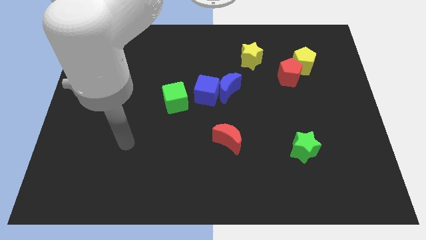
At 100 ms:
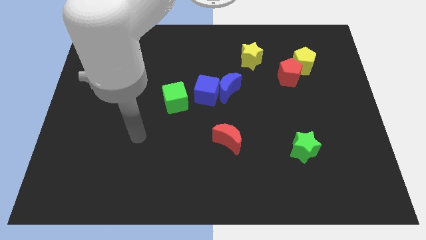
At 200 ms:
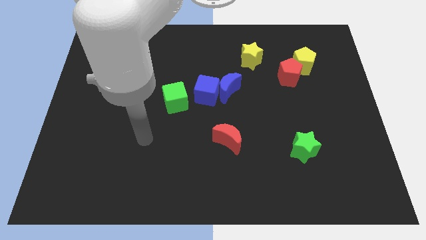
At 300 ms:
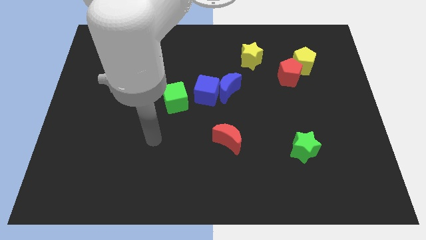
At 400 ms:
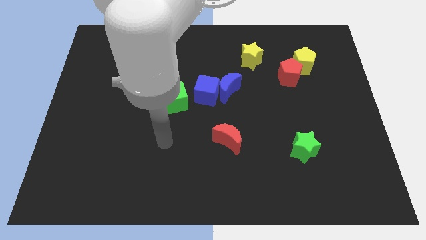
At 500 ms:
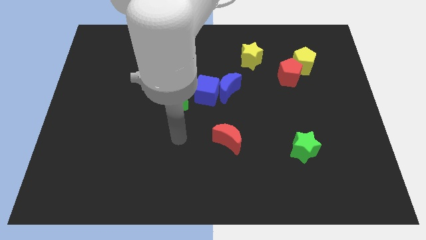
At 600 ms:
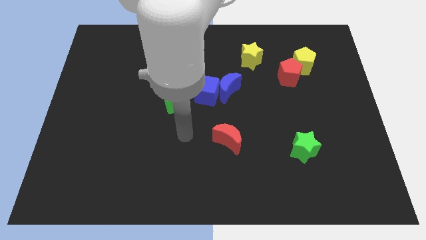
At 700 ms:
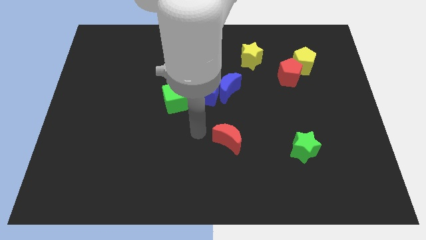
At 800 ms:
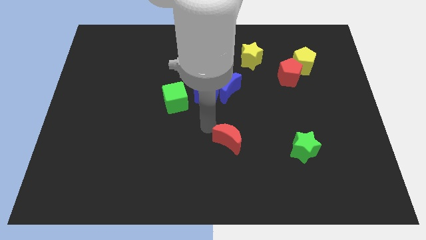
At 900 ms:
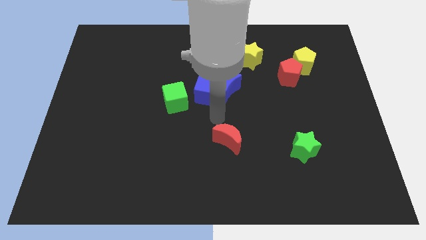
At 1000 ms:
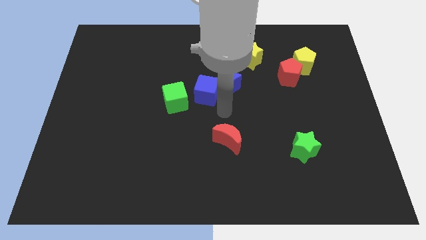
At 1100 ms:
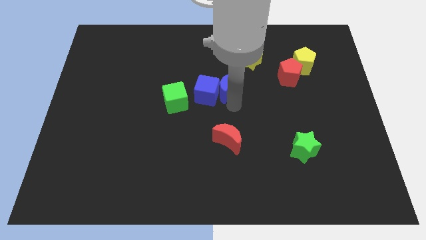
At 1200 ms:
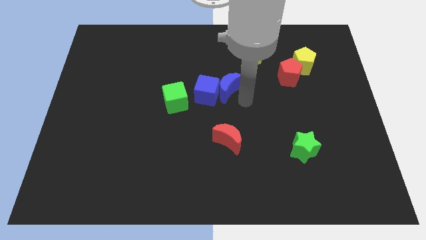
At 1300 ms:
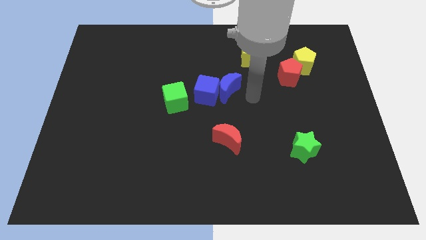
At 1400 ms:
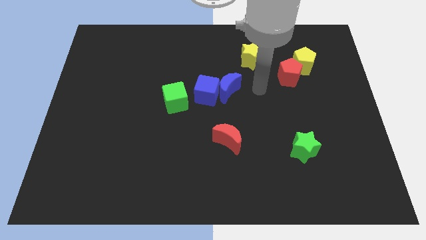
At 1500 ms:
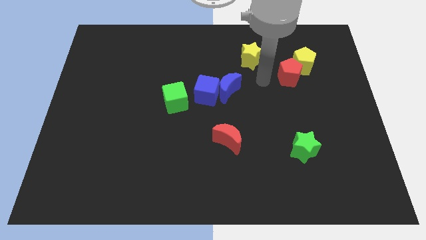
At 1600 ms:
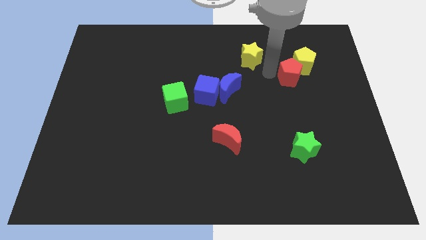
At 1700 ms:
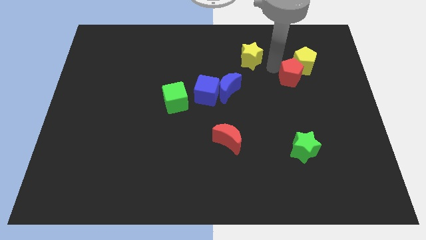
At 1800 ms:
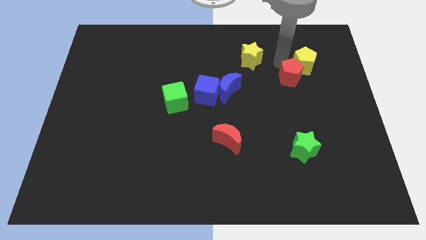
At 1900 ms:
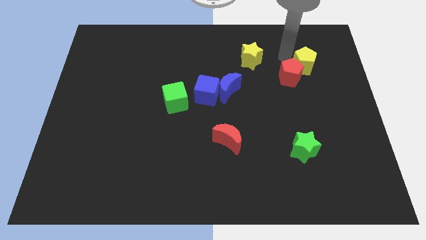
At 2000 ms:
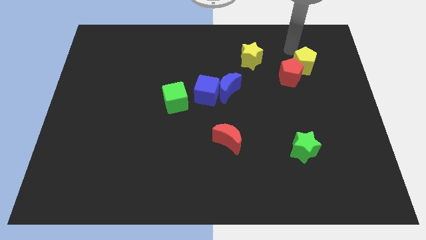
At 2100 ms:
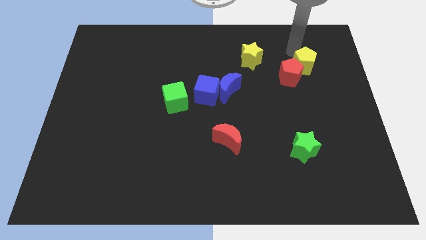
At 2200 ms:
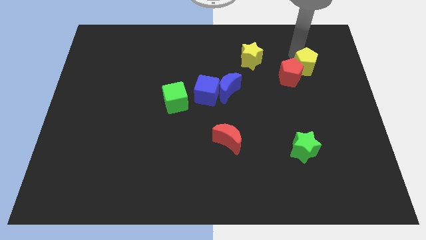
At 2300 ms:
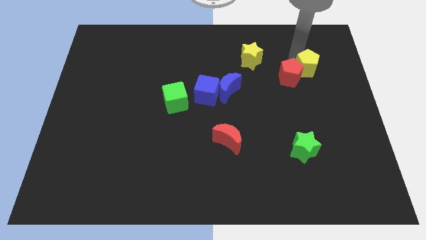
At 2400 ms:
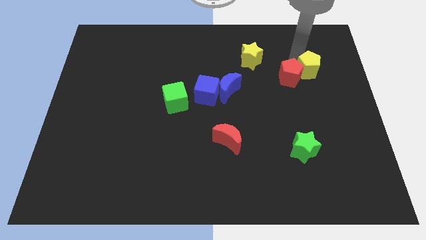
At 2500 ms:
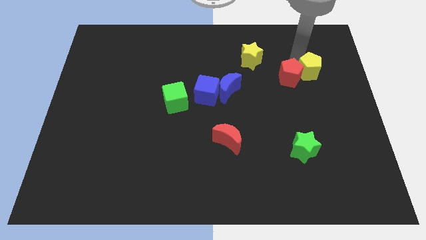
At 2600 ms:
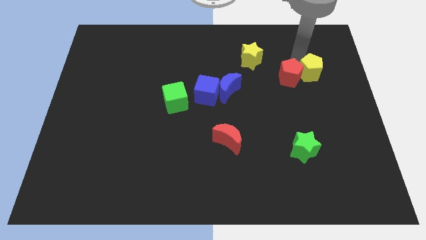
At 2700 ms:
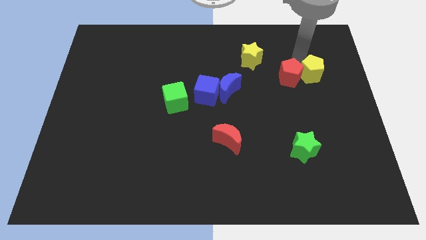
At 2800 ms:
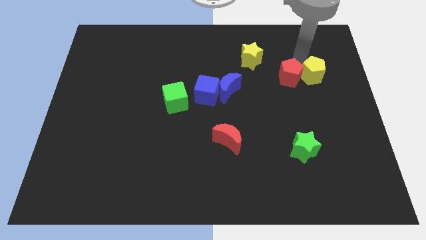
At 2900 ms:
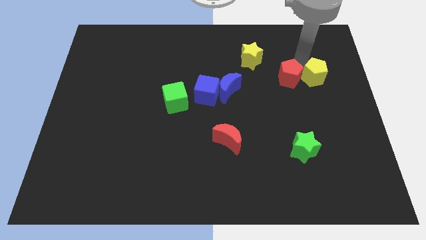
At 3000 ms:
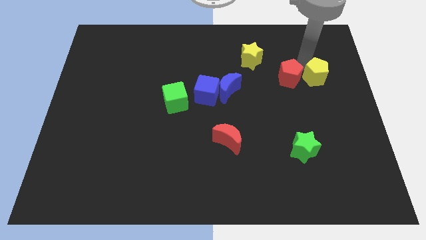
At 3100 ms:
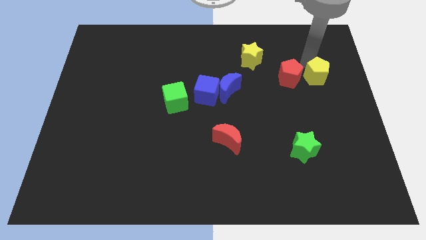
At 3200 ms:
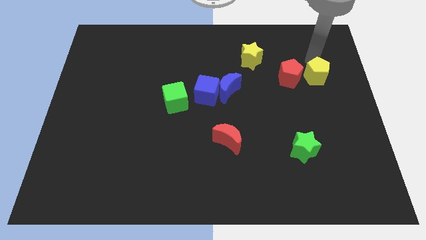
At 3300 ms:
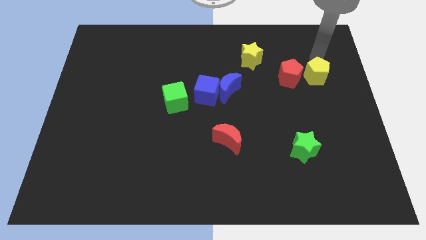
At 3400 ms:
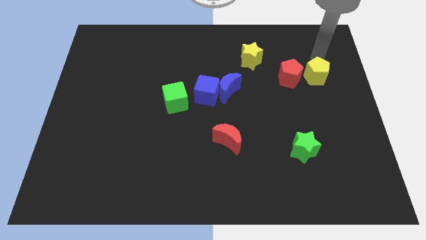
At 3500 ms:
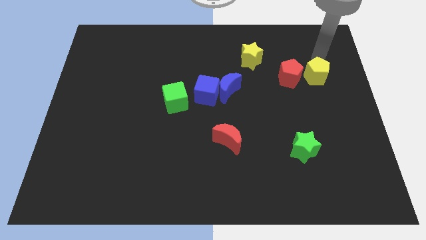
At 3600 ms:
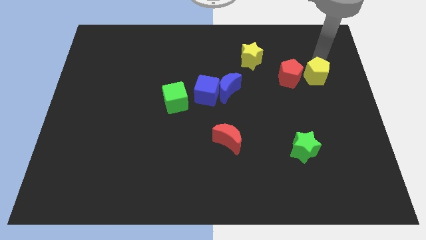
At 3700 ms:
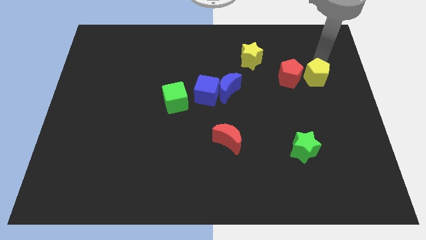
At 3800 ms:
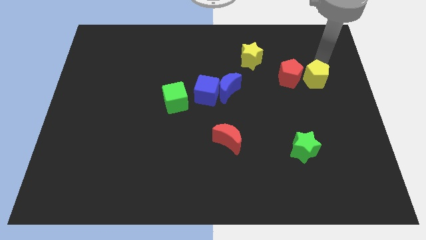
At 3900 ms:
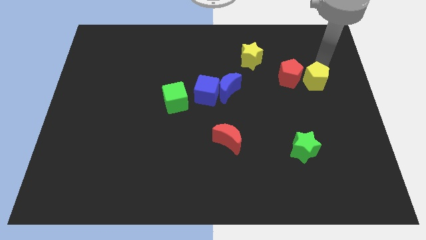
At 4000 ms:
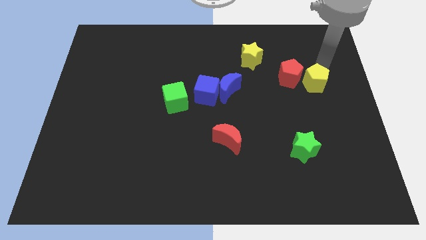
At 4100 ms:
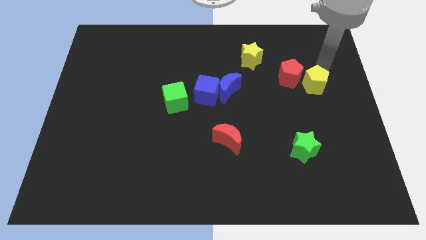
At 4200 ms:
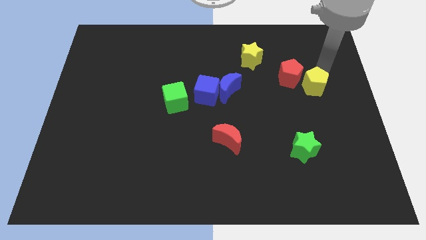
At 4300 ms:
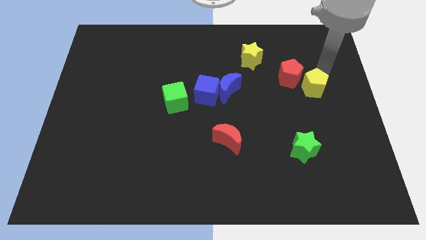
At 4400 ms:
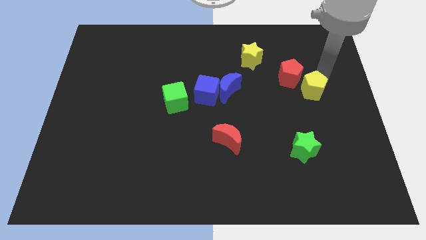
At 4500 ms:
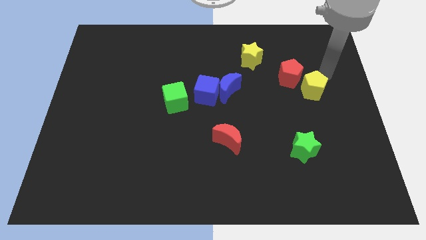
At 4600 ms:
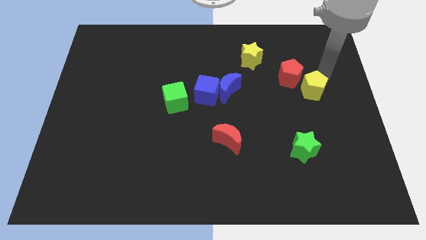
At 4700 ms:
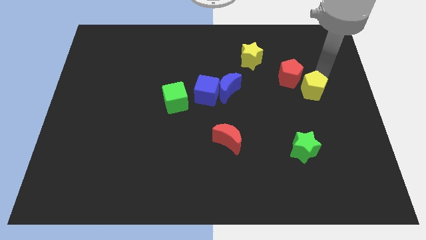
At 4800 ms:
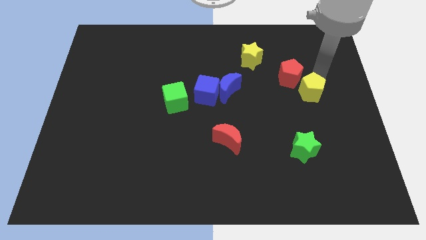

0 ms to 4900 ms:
put the yellow pentagon to the bottom of the red pentagon

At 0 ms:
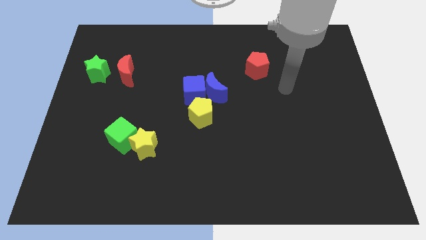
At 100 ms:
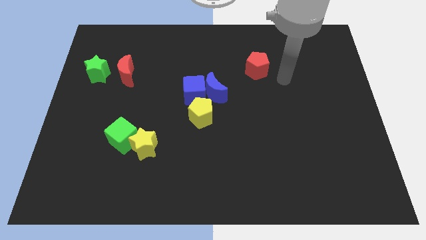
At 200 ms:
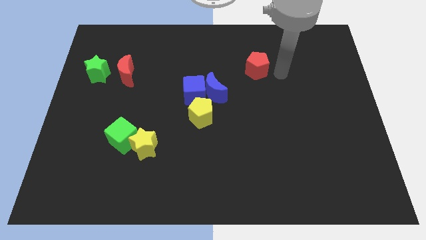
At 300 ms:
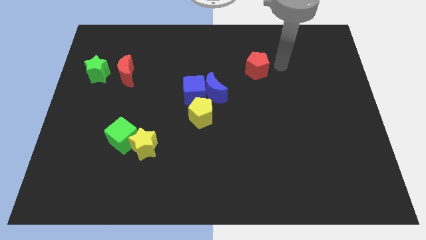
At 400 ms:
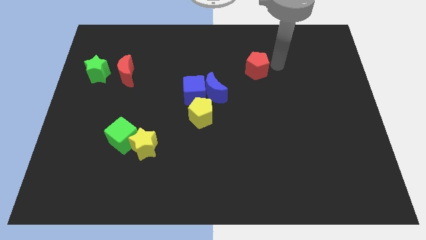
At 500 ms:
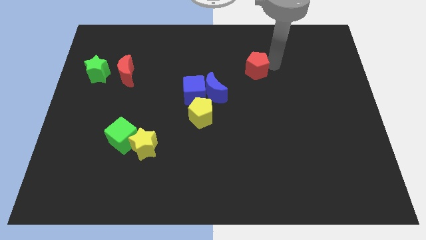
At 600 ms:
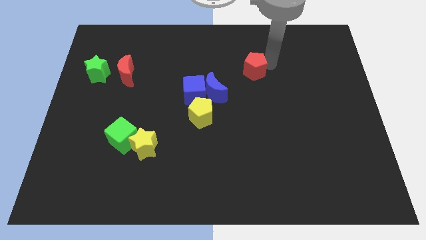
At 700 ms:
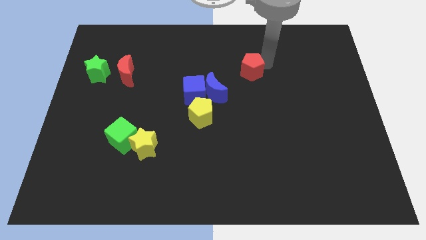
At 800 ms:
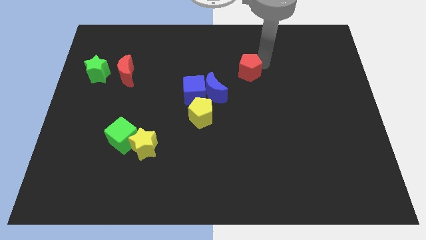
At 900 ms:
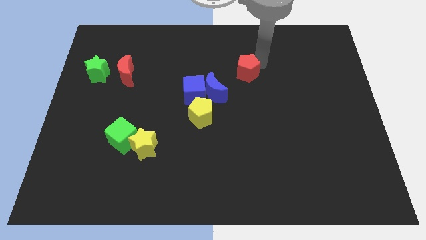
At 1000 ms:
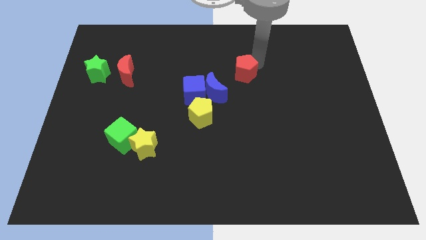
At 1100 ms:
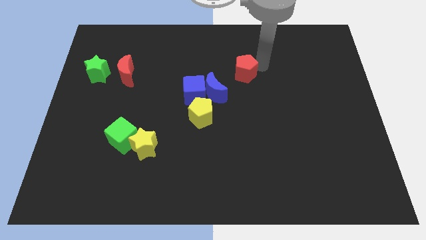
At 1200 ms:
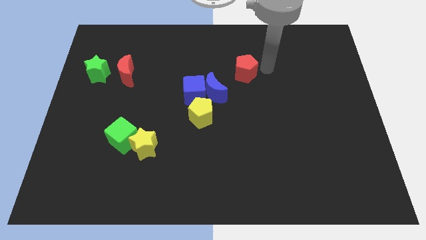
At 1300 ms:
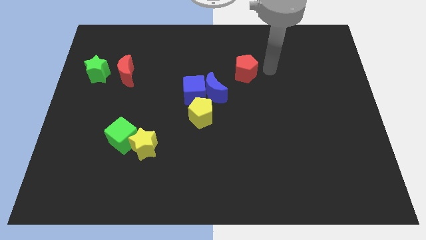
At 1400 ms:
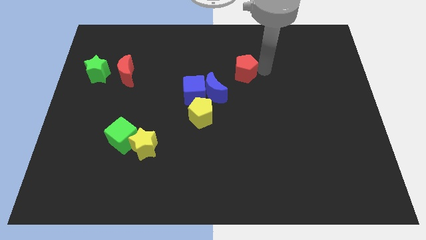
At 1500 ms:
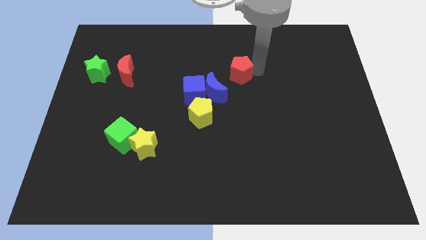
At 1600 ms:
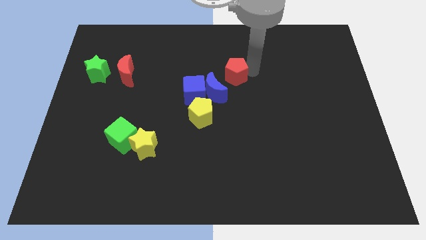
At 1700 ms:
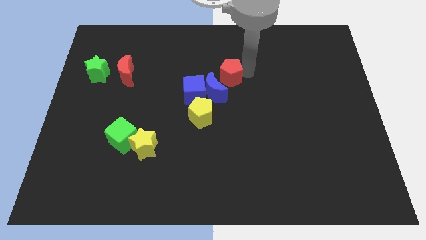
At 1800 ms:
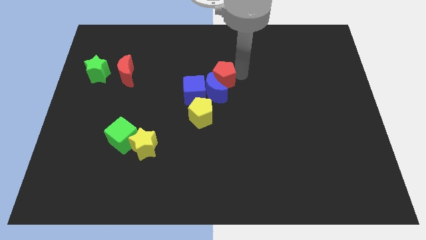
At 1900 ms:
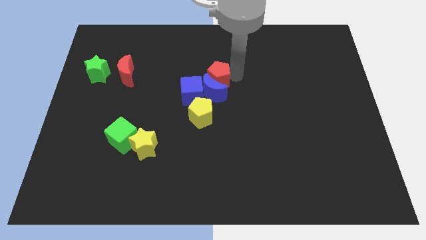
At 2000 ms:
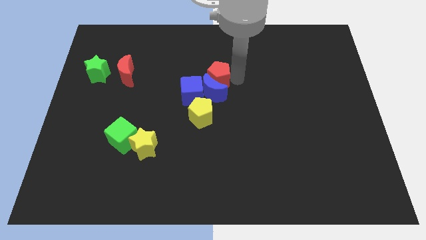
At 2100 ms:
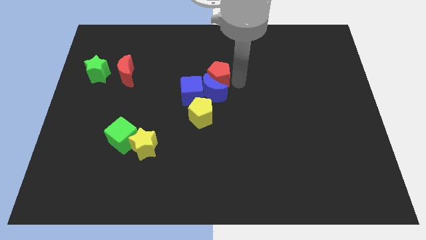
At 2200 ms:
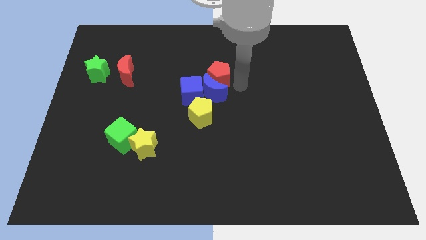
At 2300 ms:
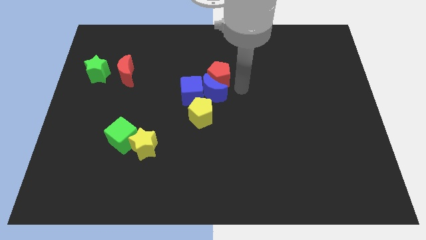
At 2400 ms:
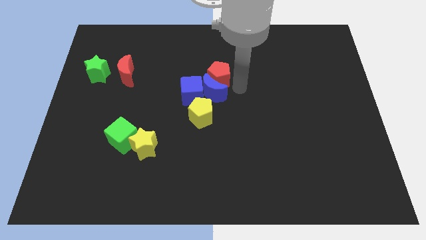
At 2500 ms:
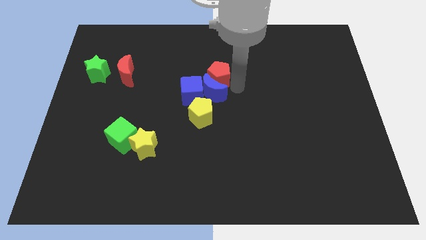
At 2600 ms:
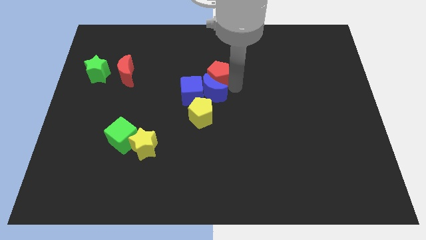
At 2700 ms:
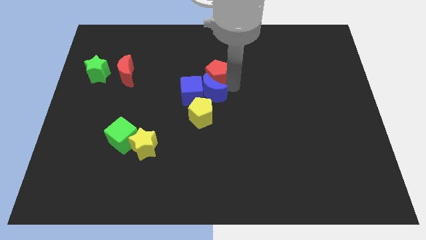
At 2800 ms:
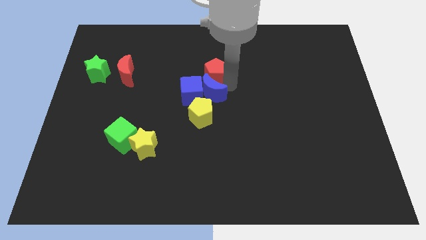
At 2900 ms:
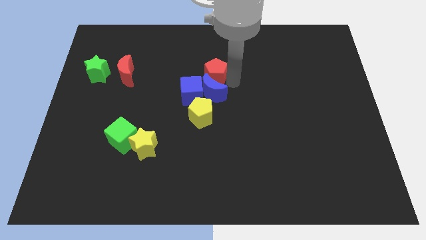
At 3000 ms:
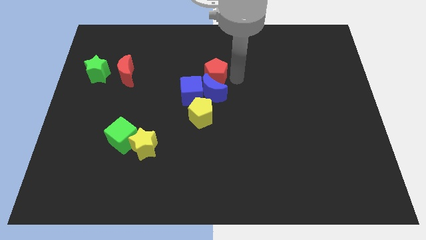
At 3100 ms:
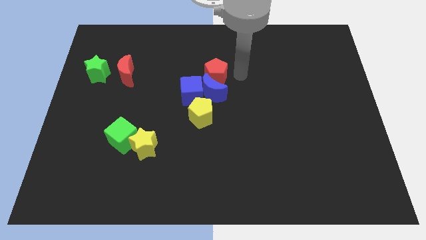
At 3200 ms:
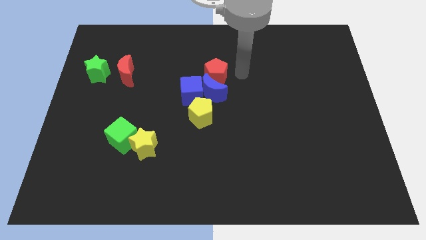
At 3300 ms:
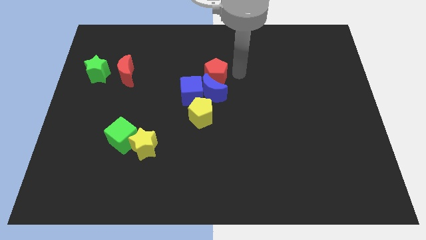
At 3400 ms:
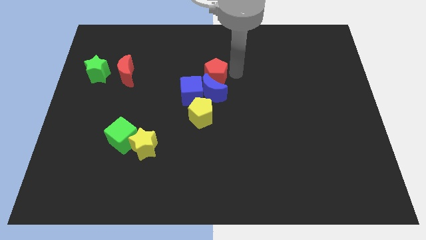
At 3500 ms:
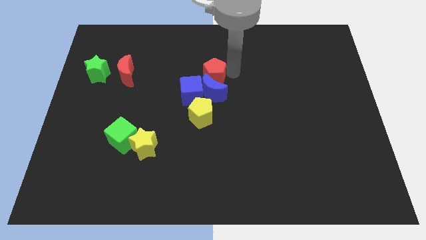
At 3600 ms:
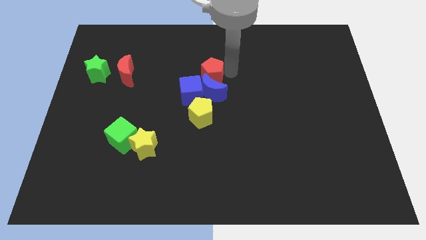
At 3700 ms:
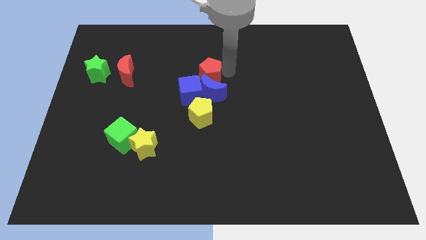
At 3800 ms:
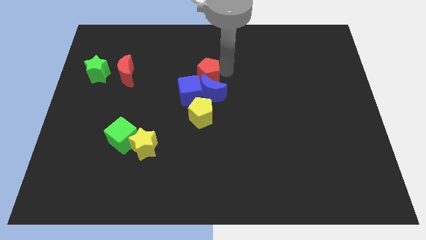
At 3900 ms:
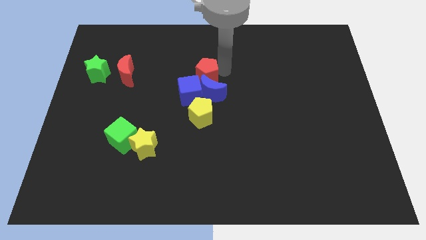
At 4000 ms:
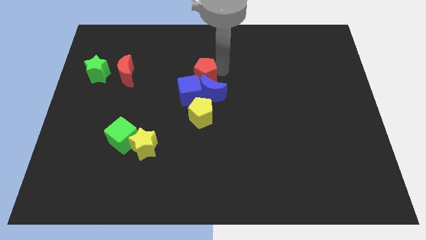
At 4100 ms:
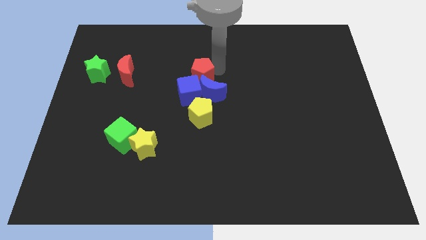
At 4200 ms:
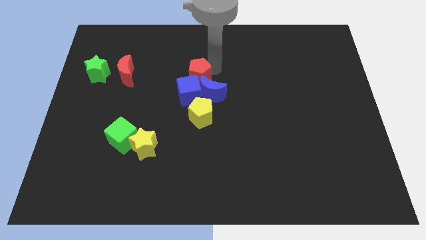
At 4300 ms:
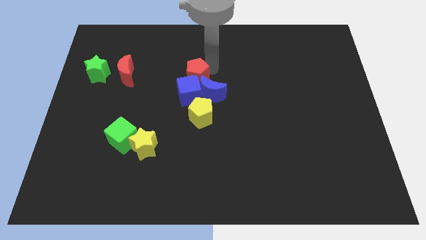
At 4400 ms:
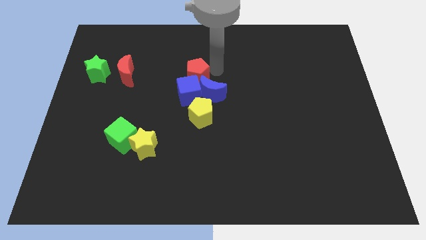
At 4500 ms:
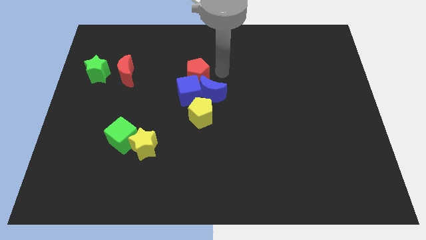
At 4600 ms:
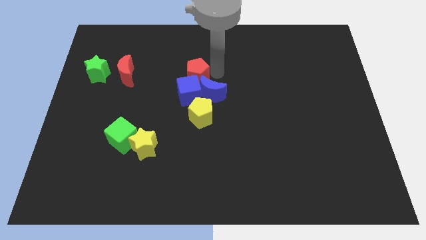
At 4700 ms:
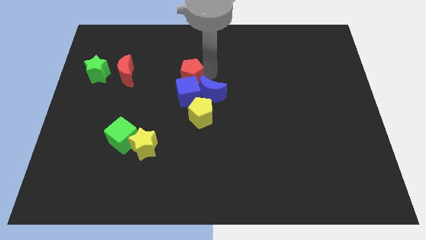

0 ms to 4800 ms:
slide the red pentagon to the top left side of the blue cube
